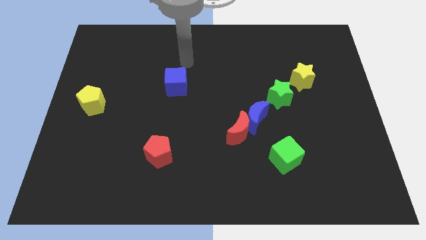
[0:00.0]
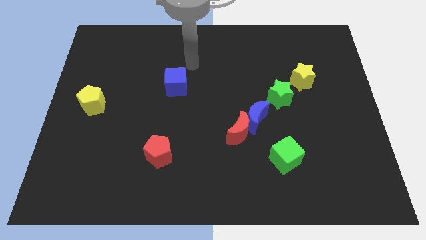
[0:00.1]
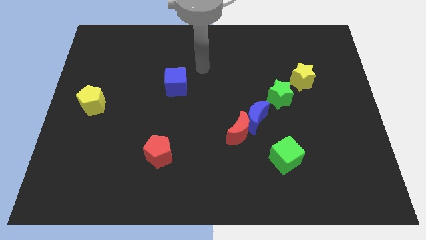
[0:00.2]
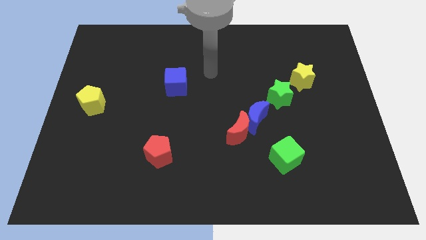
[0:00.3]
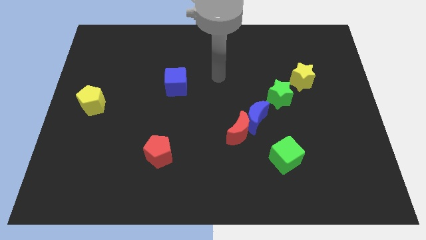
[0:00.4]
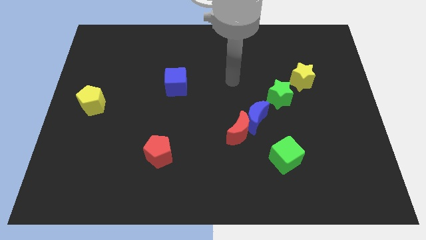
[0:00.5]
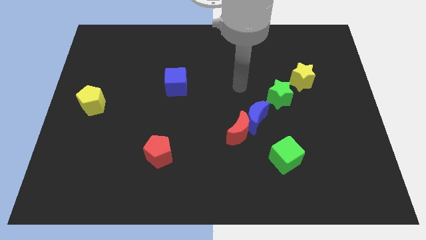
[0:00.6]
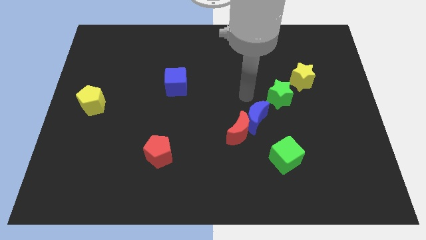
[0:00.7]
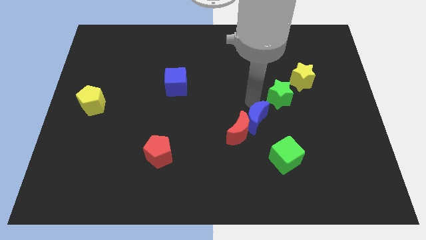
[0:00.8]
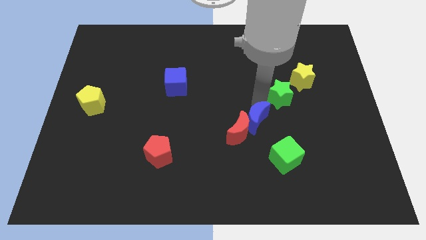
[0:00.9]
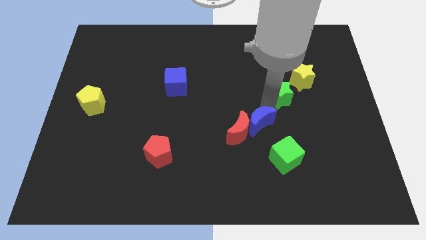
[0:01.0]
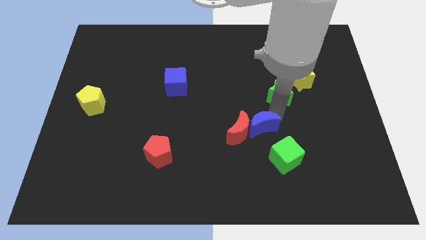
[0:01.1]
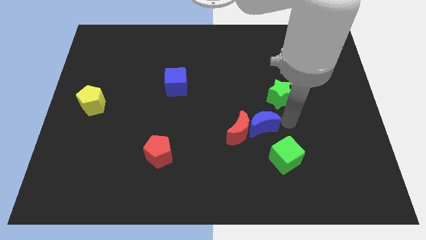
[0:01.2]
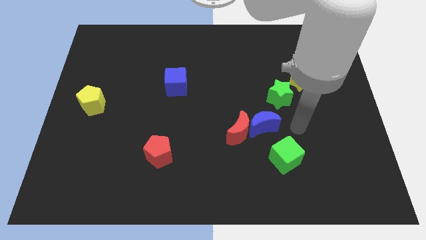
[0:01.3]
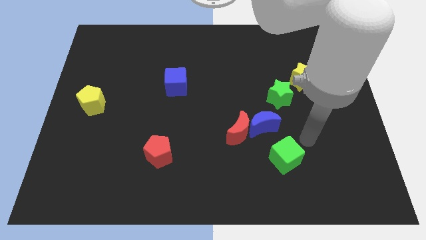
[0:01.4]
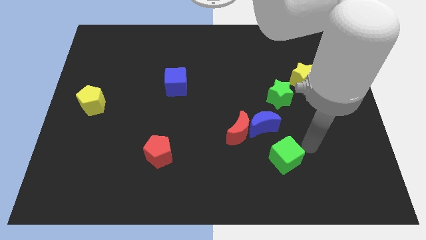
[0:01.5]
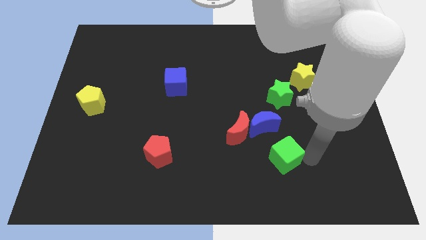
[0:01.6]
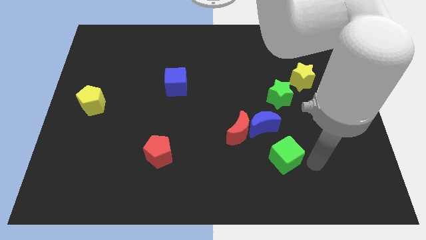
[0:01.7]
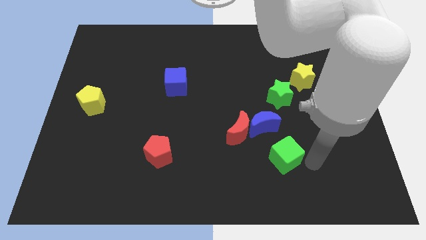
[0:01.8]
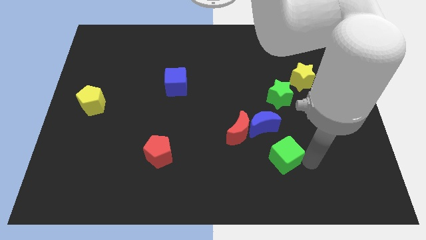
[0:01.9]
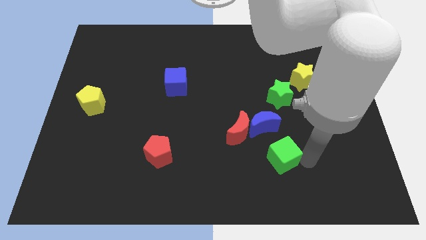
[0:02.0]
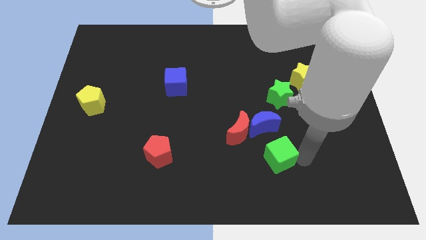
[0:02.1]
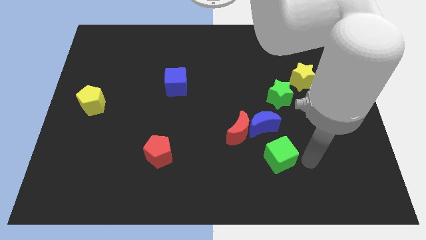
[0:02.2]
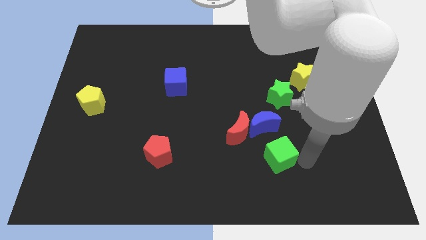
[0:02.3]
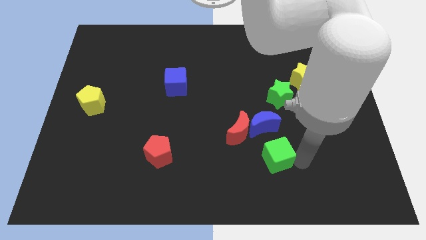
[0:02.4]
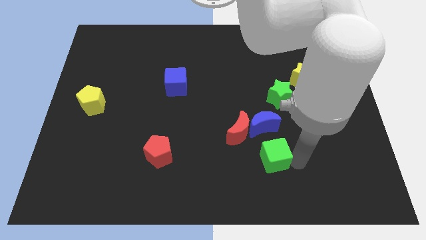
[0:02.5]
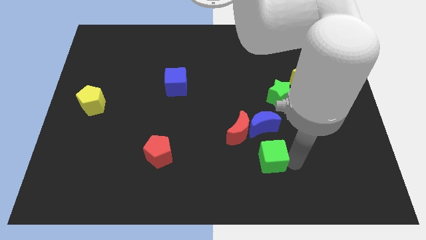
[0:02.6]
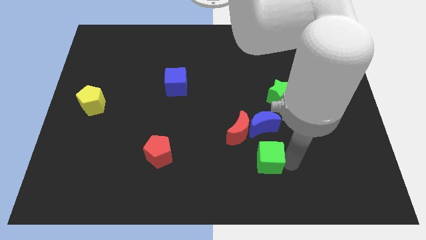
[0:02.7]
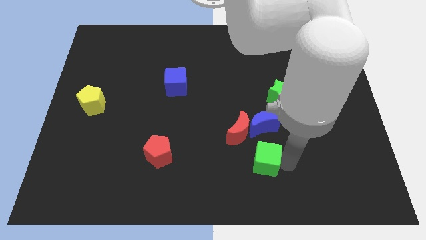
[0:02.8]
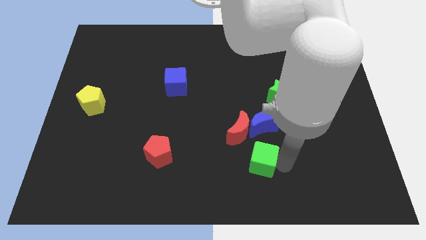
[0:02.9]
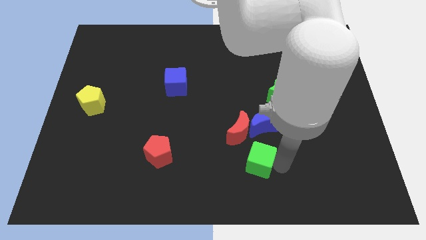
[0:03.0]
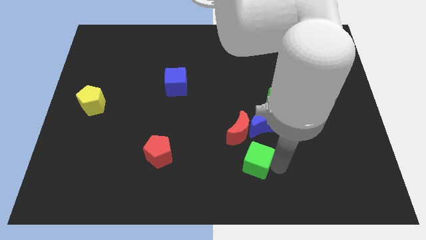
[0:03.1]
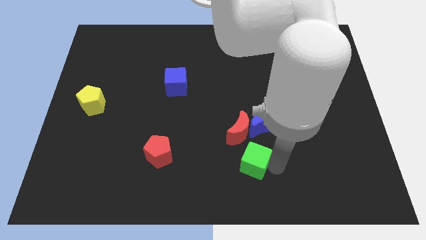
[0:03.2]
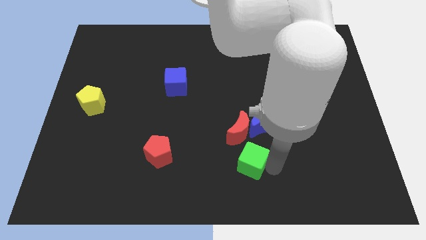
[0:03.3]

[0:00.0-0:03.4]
slightly slide the green cube left

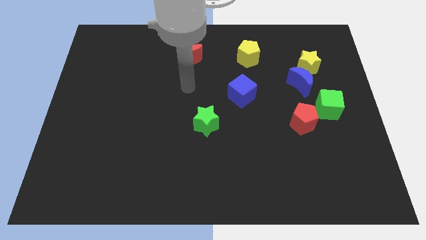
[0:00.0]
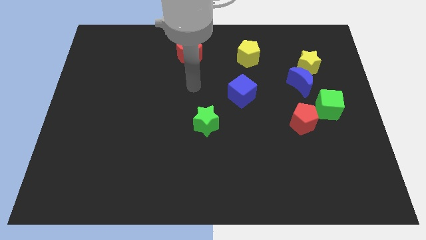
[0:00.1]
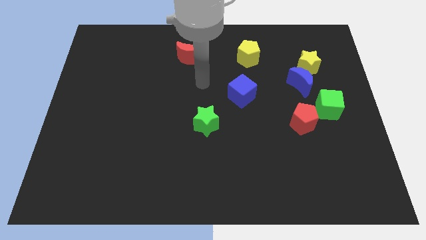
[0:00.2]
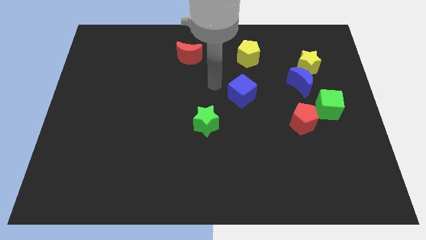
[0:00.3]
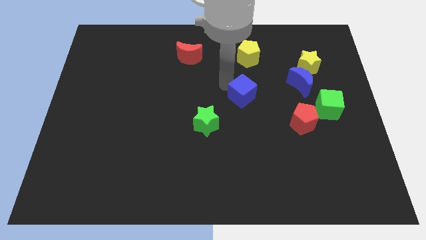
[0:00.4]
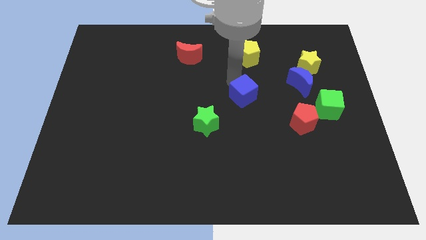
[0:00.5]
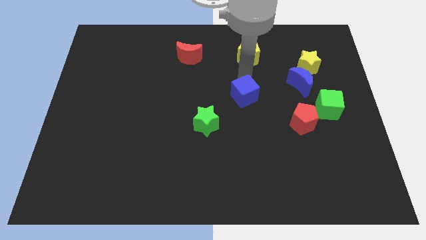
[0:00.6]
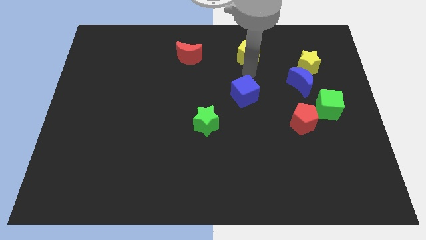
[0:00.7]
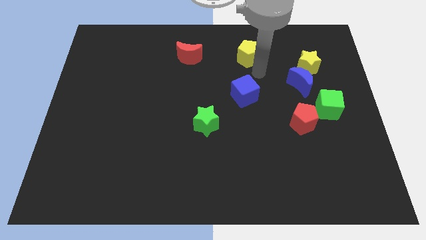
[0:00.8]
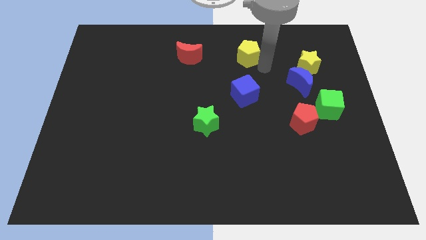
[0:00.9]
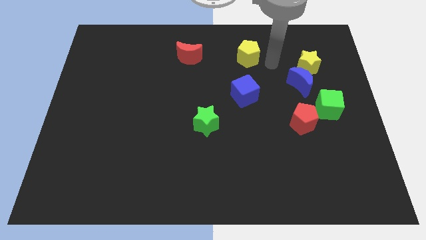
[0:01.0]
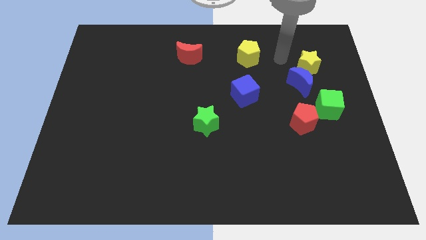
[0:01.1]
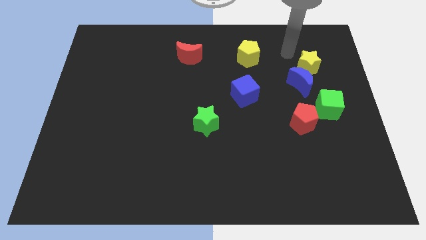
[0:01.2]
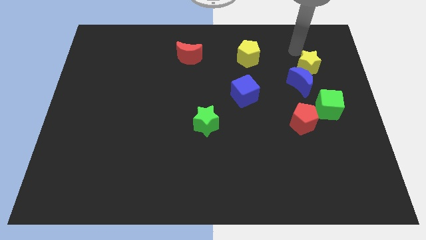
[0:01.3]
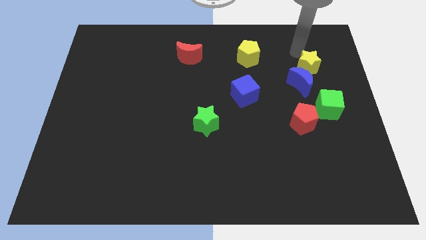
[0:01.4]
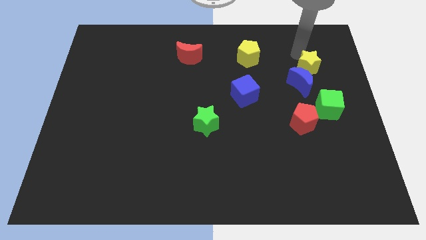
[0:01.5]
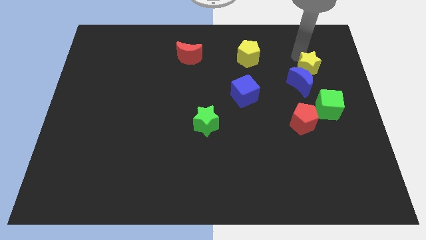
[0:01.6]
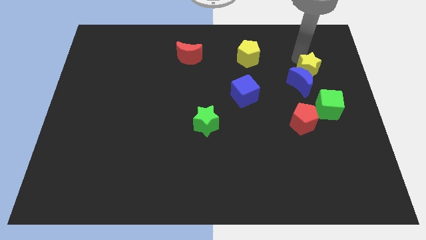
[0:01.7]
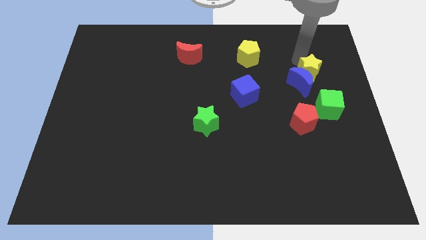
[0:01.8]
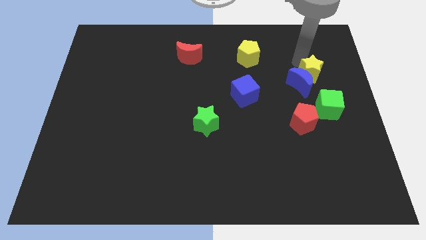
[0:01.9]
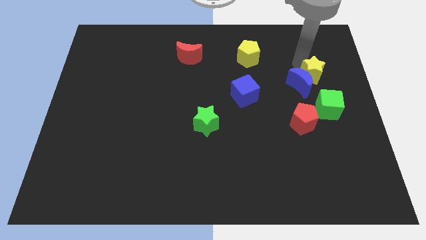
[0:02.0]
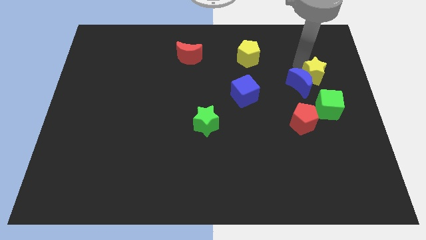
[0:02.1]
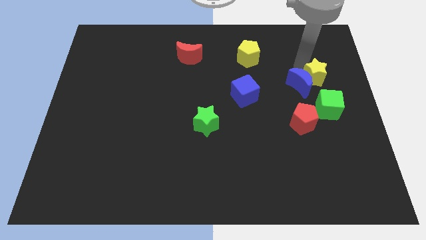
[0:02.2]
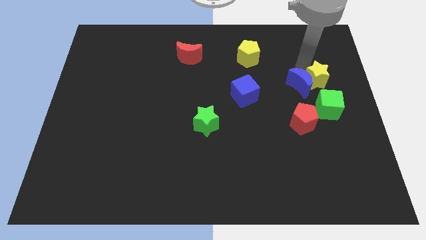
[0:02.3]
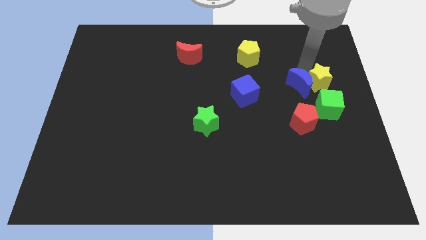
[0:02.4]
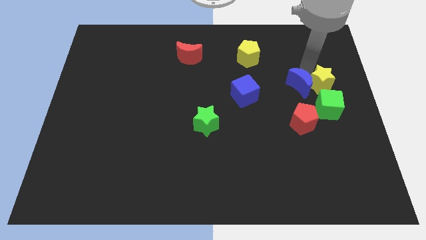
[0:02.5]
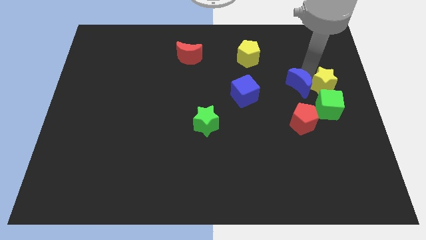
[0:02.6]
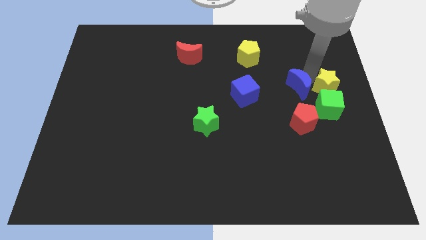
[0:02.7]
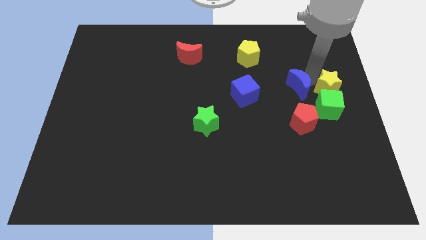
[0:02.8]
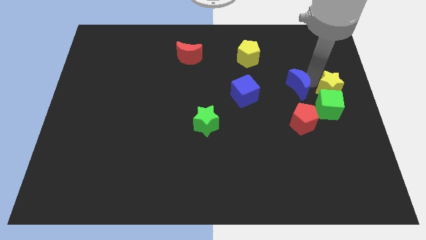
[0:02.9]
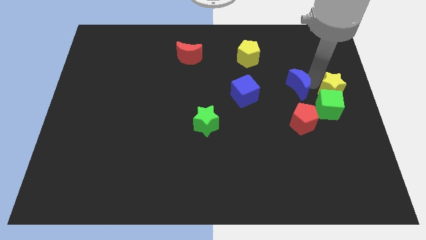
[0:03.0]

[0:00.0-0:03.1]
move the yellow star downwards a bit

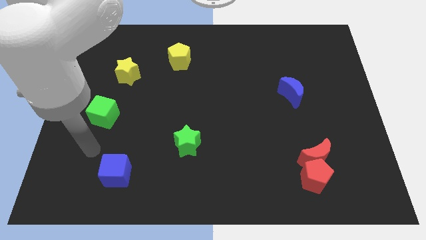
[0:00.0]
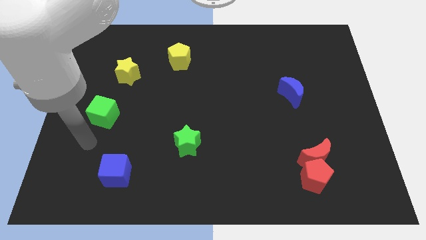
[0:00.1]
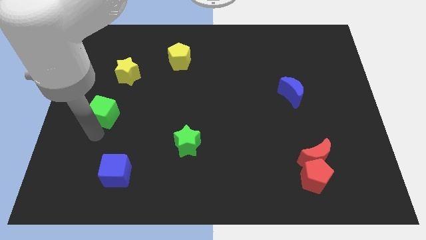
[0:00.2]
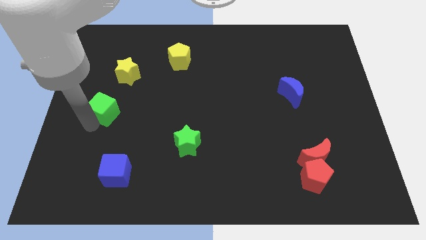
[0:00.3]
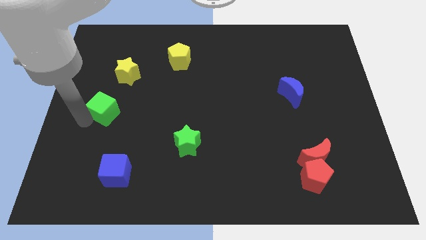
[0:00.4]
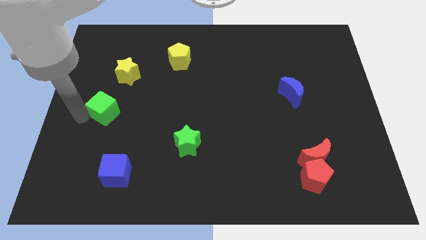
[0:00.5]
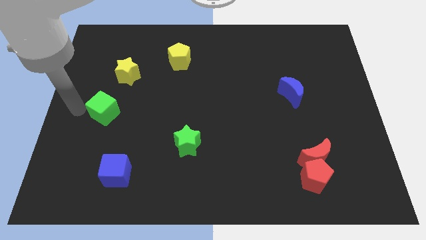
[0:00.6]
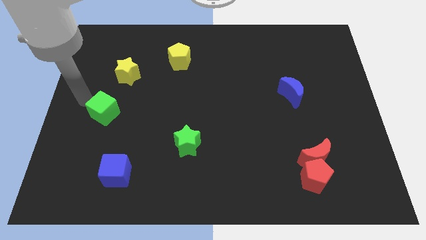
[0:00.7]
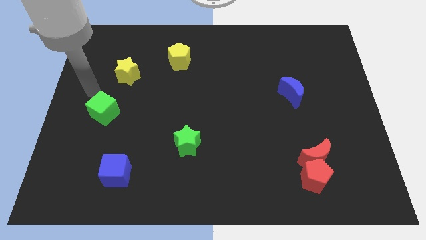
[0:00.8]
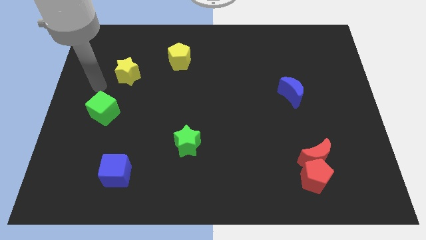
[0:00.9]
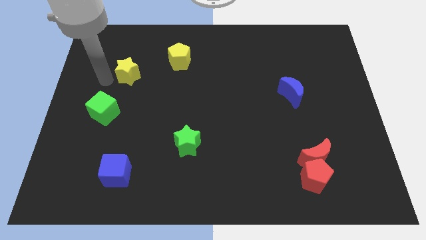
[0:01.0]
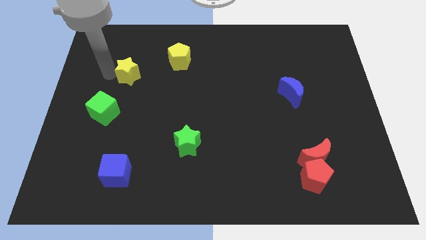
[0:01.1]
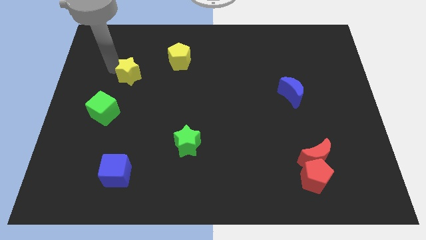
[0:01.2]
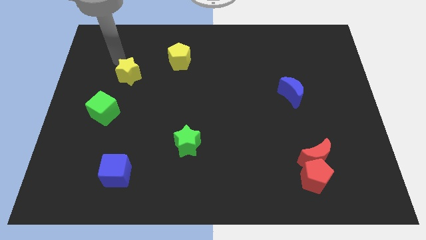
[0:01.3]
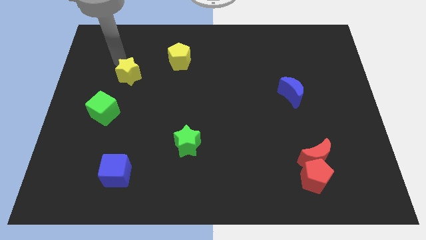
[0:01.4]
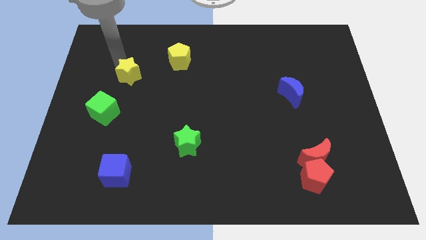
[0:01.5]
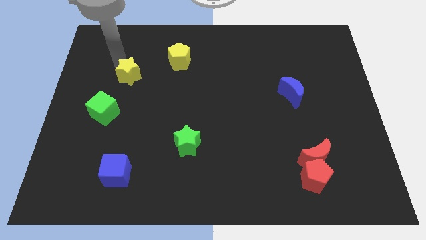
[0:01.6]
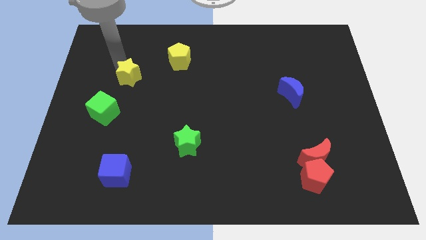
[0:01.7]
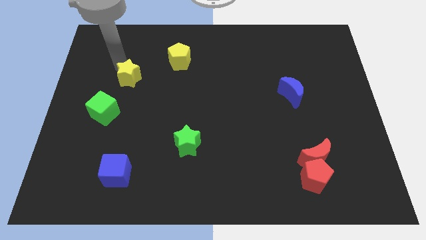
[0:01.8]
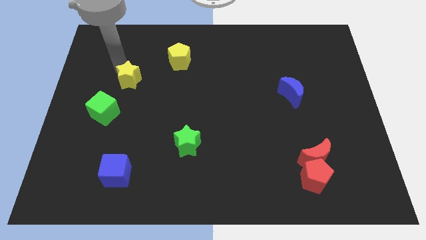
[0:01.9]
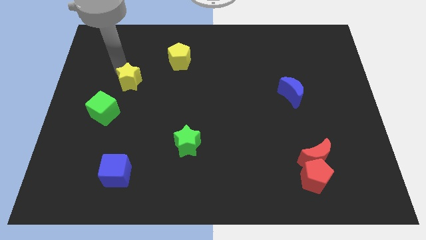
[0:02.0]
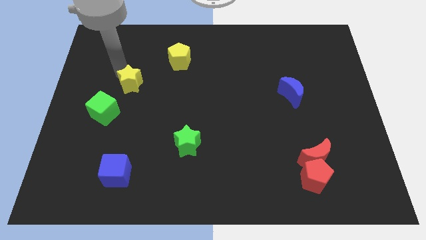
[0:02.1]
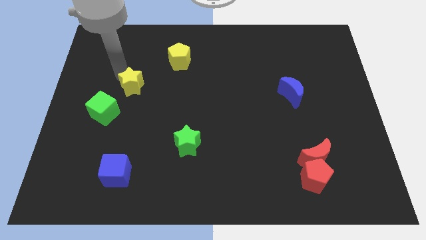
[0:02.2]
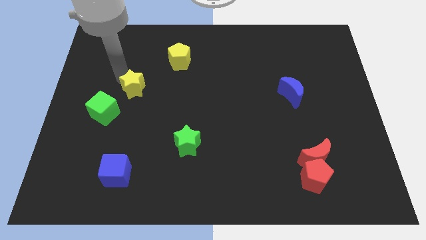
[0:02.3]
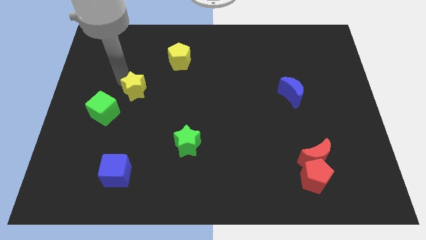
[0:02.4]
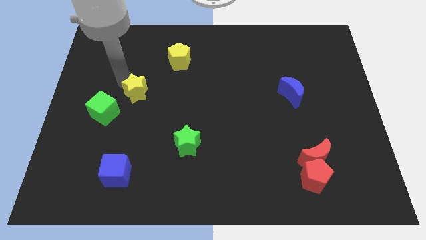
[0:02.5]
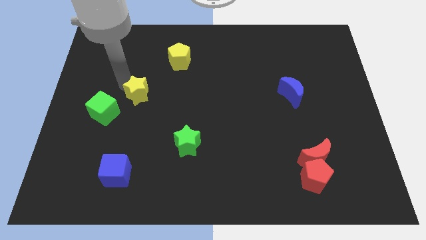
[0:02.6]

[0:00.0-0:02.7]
slide the yellow star a little downwards and right diagonally
